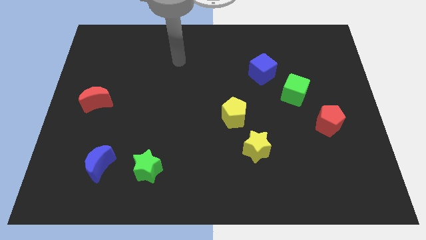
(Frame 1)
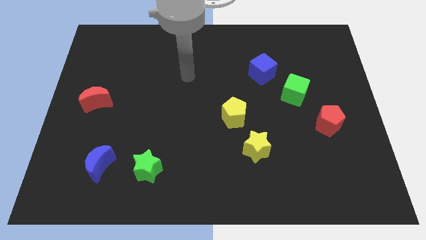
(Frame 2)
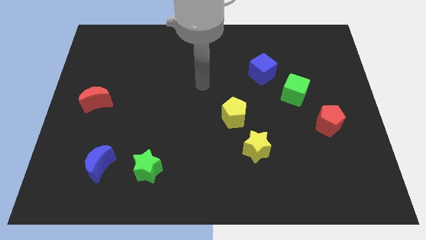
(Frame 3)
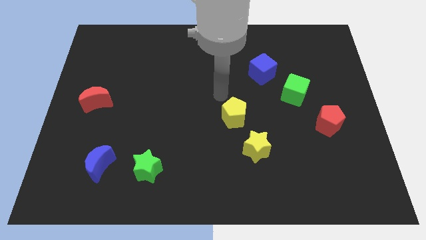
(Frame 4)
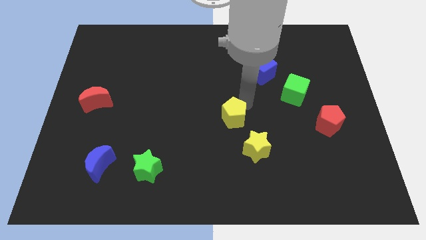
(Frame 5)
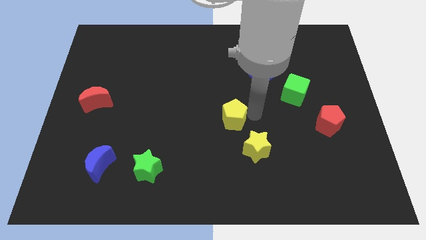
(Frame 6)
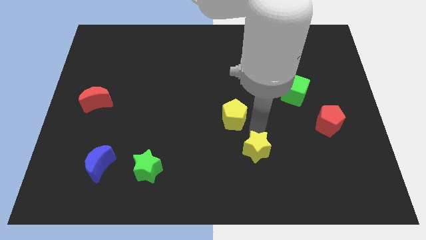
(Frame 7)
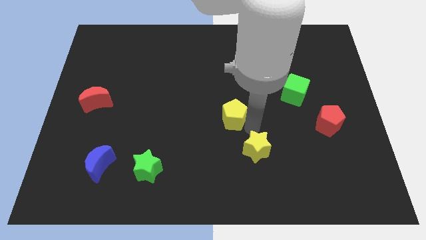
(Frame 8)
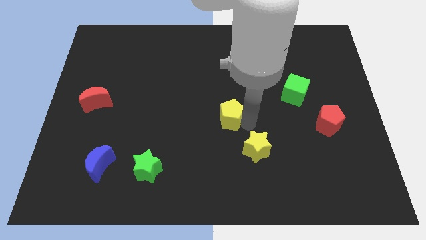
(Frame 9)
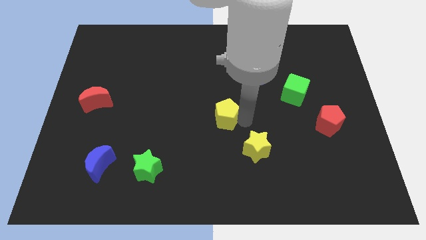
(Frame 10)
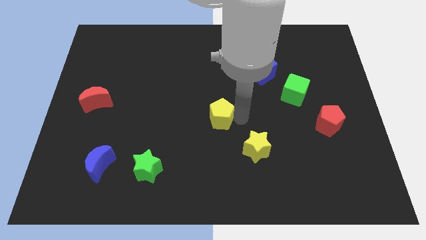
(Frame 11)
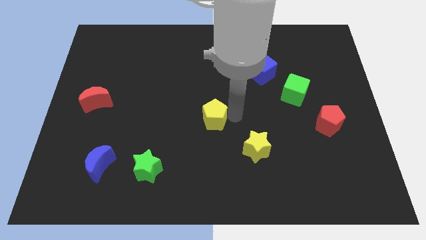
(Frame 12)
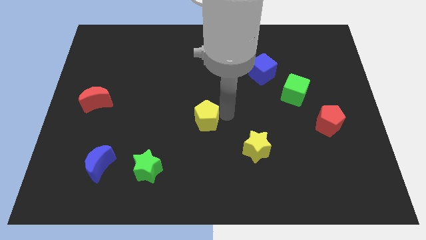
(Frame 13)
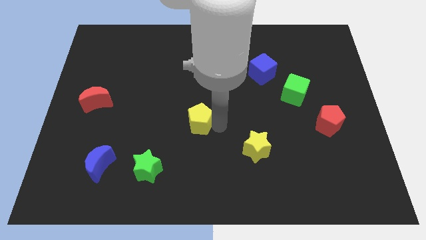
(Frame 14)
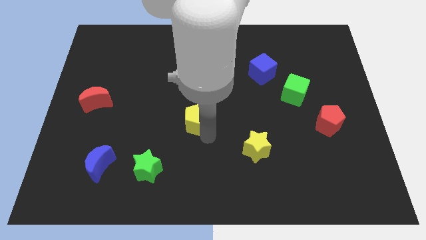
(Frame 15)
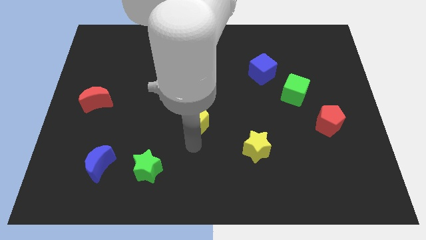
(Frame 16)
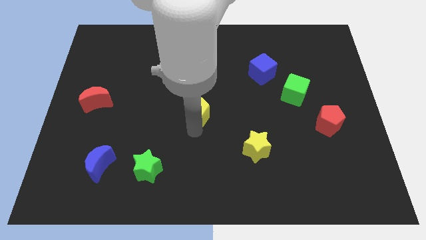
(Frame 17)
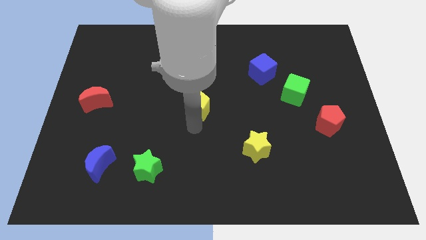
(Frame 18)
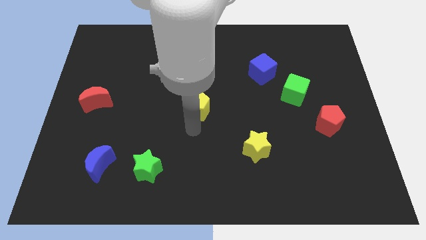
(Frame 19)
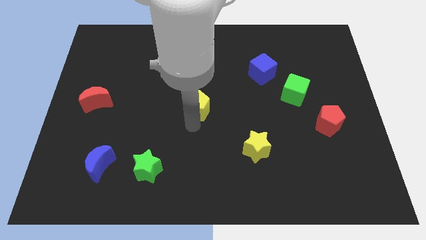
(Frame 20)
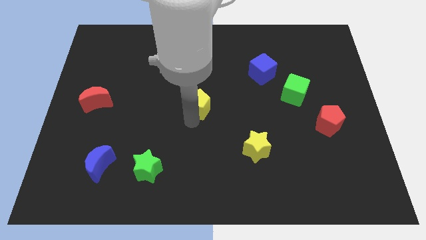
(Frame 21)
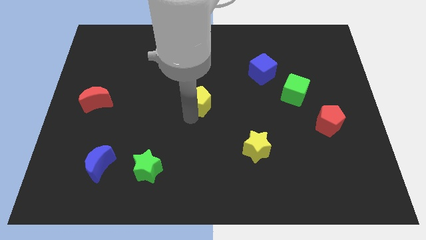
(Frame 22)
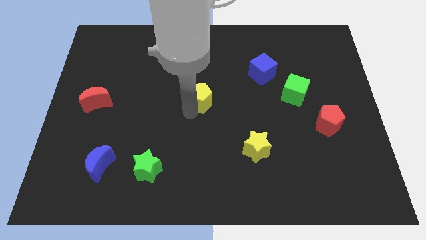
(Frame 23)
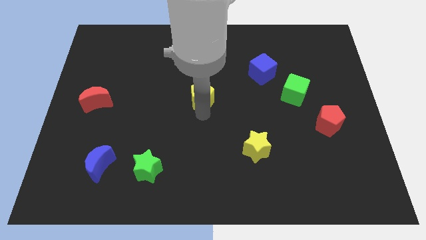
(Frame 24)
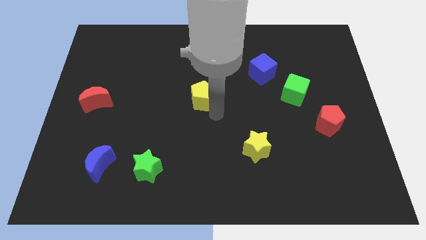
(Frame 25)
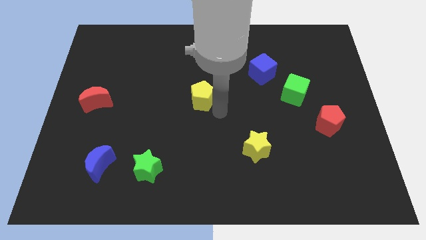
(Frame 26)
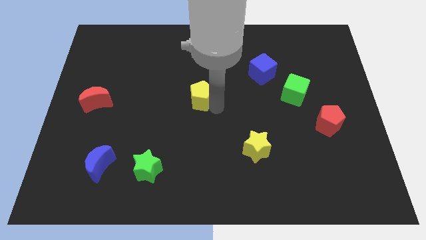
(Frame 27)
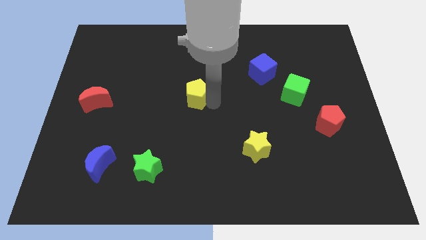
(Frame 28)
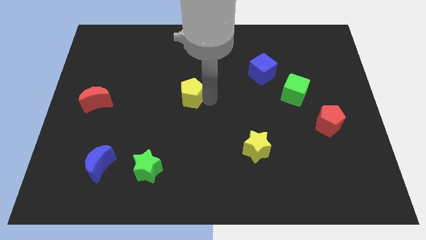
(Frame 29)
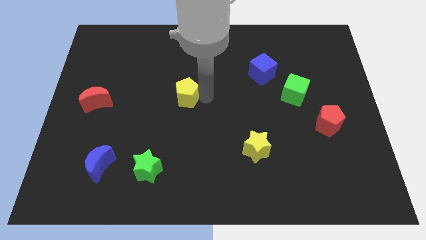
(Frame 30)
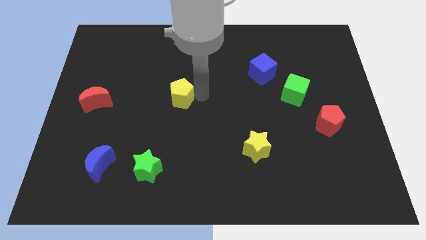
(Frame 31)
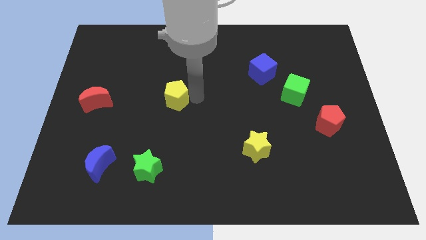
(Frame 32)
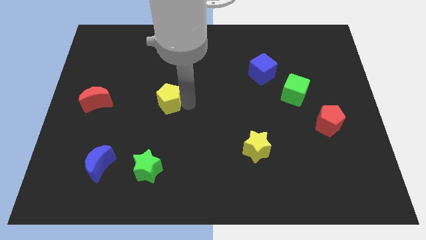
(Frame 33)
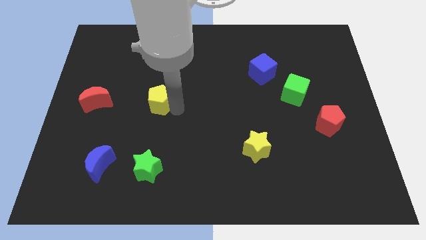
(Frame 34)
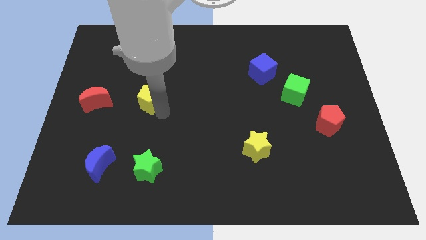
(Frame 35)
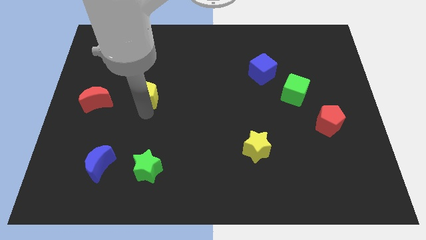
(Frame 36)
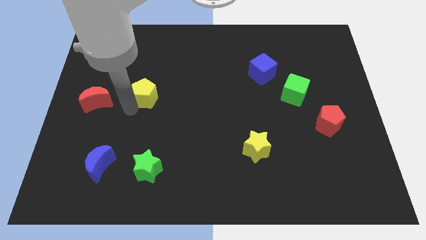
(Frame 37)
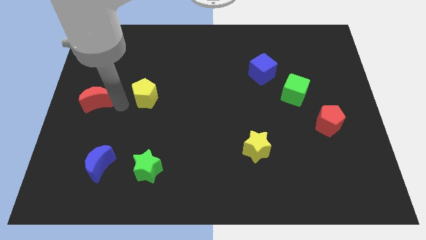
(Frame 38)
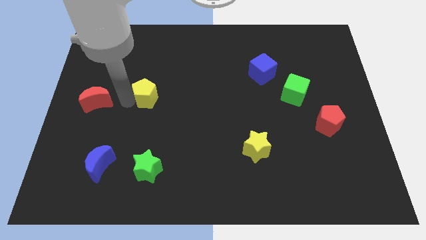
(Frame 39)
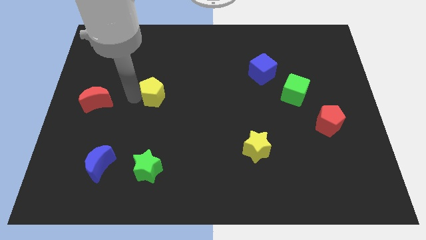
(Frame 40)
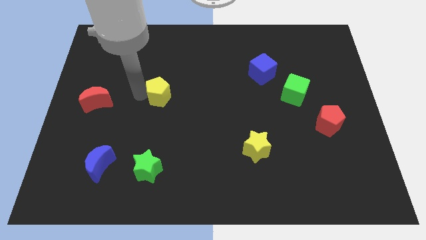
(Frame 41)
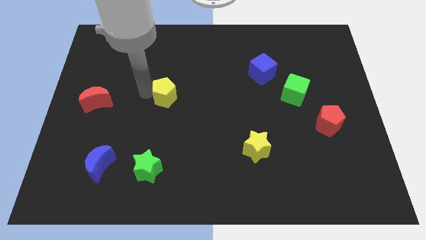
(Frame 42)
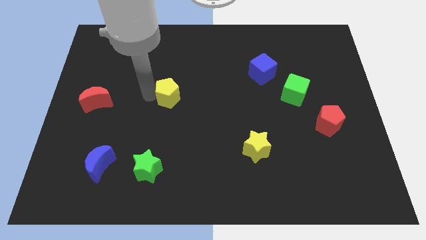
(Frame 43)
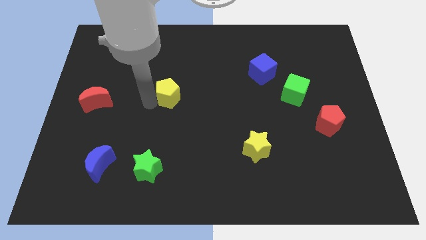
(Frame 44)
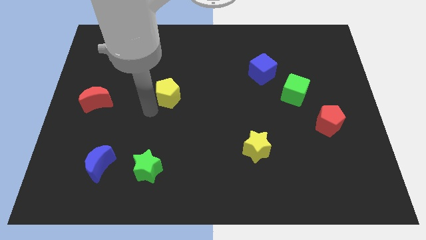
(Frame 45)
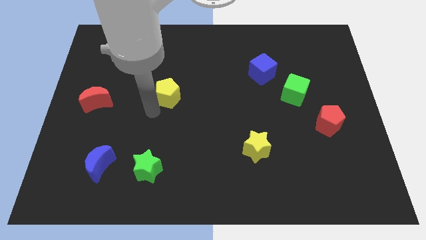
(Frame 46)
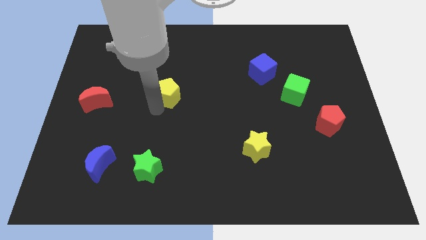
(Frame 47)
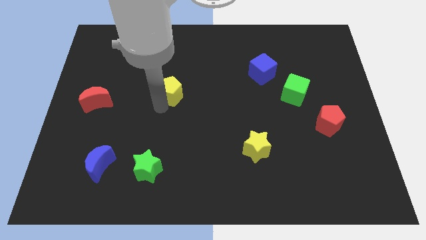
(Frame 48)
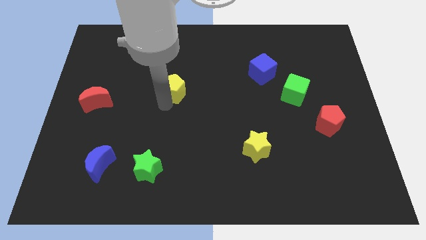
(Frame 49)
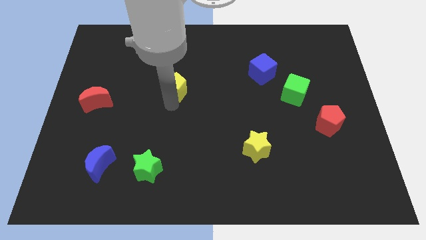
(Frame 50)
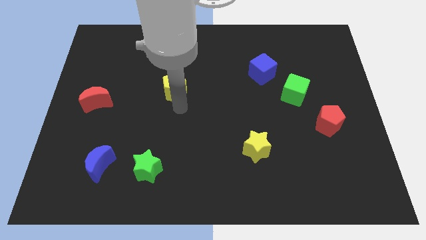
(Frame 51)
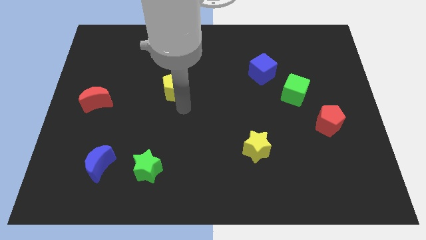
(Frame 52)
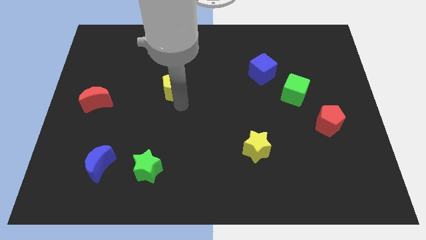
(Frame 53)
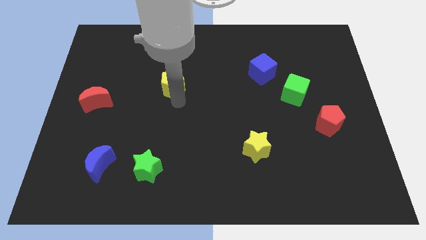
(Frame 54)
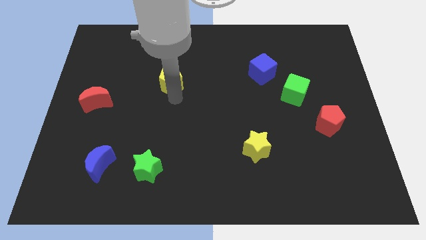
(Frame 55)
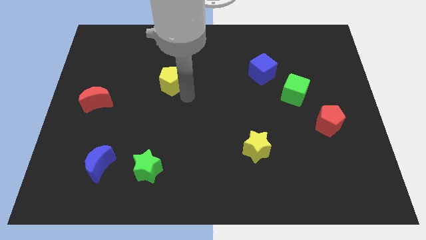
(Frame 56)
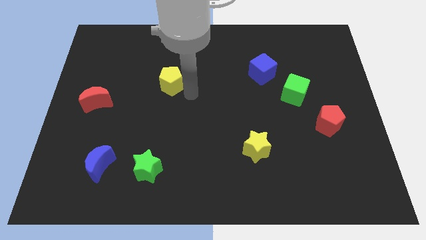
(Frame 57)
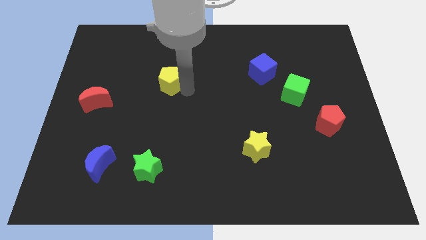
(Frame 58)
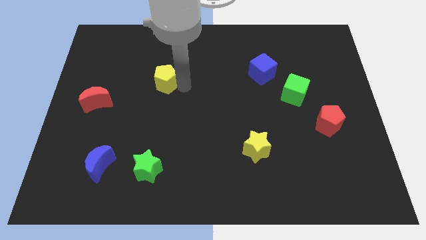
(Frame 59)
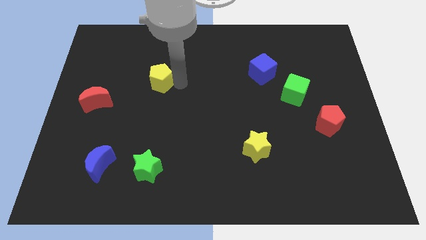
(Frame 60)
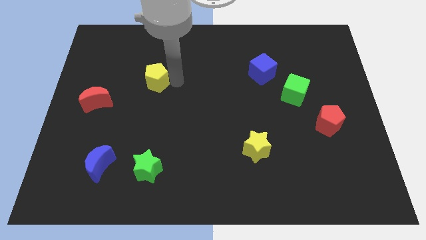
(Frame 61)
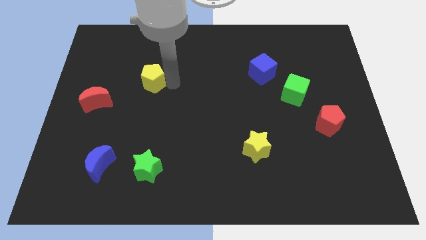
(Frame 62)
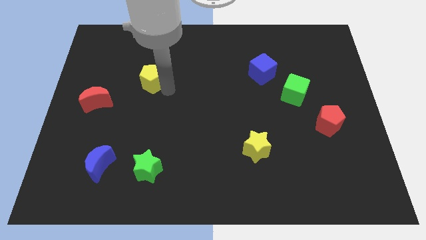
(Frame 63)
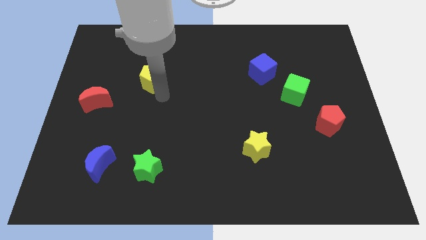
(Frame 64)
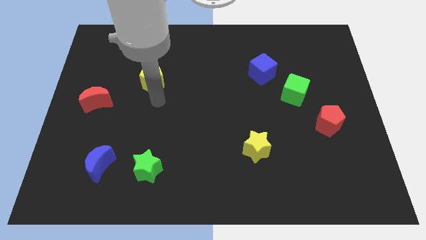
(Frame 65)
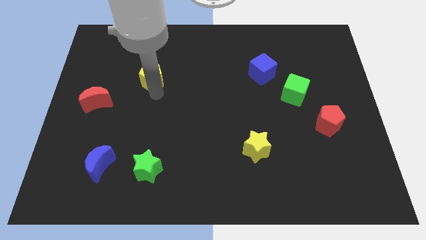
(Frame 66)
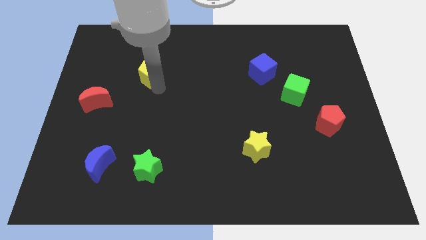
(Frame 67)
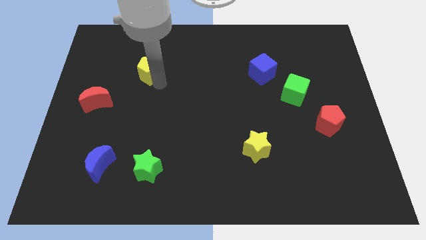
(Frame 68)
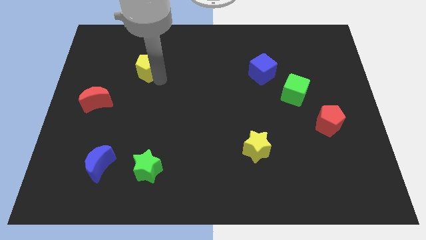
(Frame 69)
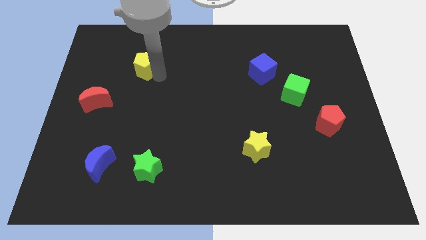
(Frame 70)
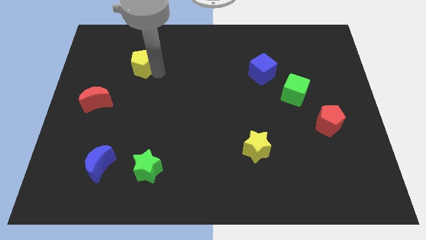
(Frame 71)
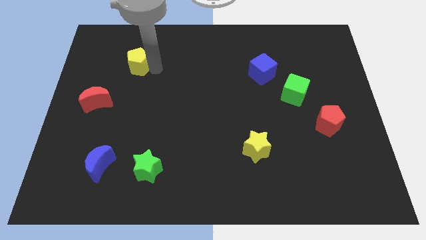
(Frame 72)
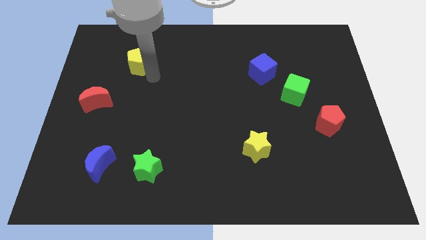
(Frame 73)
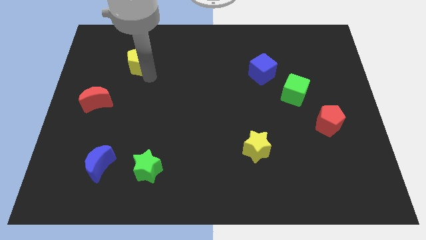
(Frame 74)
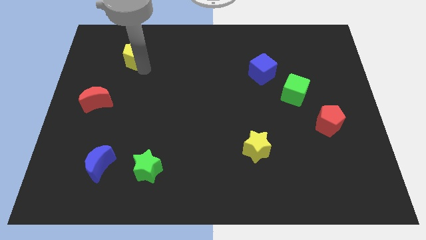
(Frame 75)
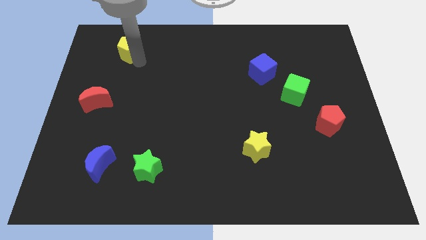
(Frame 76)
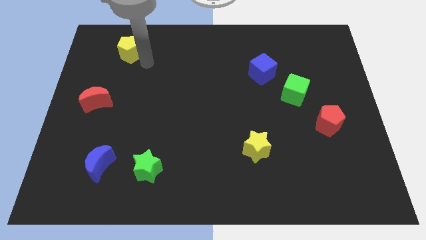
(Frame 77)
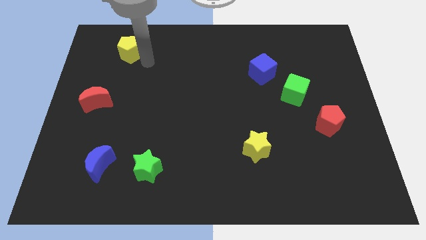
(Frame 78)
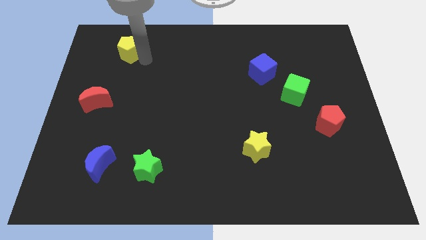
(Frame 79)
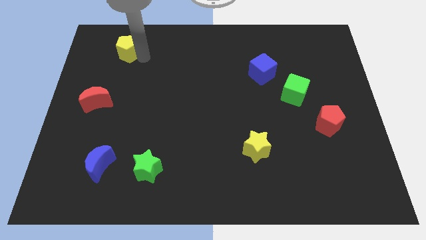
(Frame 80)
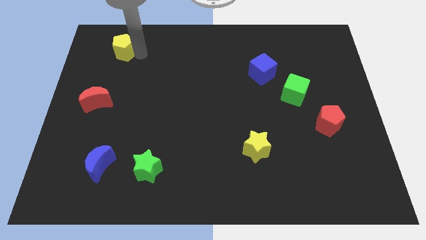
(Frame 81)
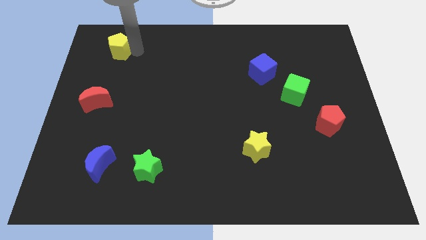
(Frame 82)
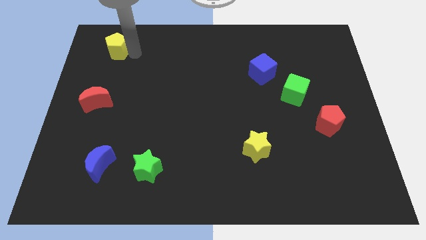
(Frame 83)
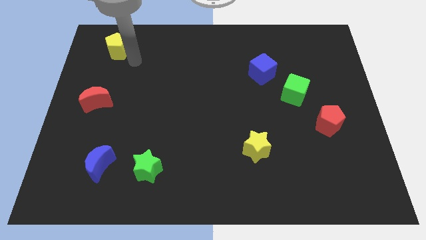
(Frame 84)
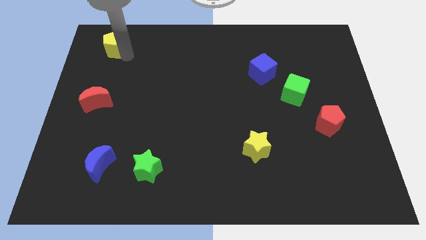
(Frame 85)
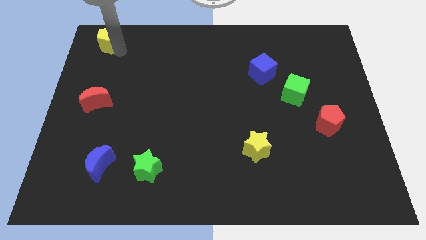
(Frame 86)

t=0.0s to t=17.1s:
slide the yellow pentagon to the top left of the board
